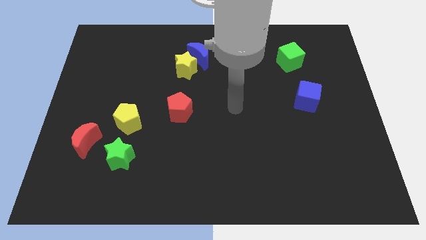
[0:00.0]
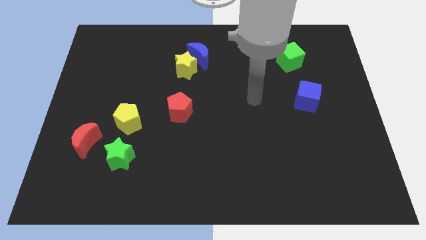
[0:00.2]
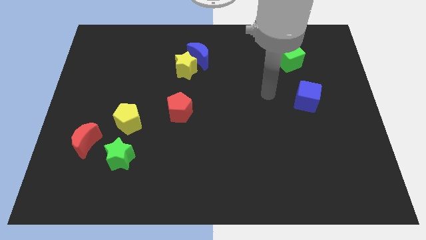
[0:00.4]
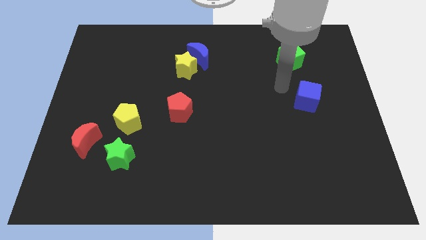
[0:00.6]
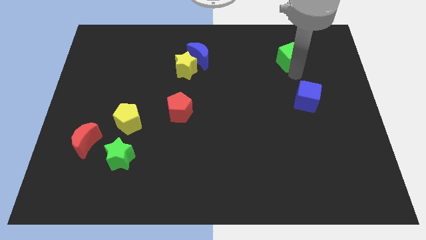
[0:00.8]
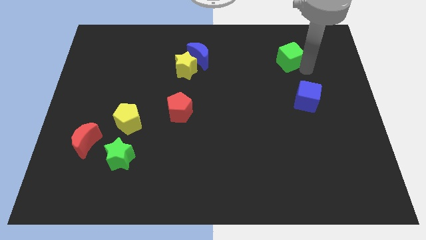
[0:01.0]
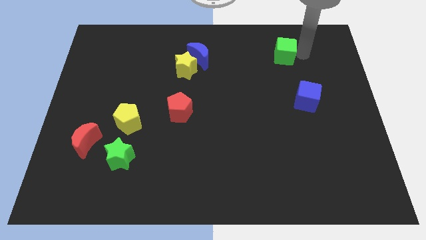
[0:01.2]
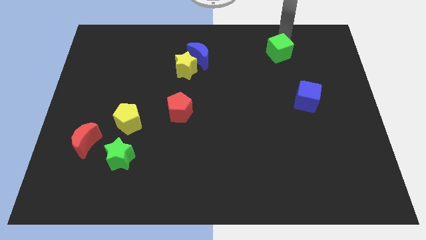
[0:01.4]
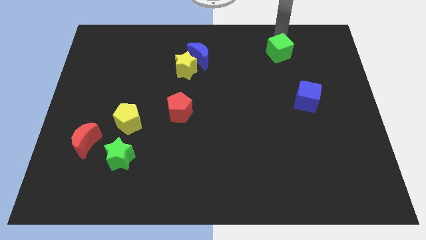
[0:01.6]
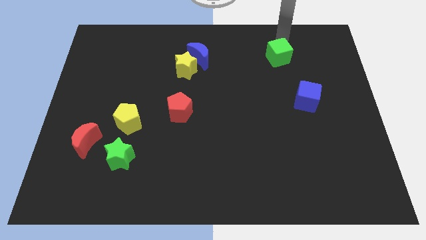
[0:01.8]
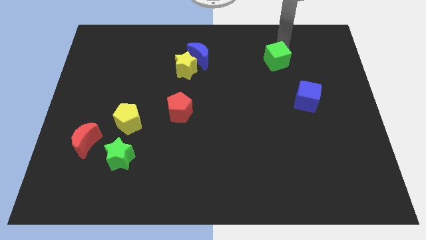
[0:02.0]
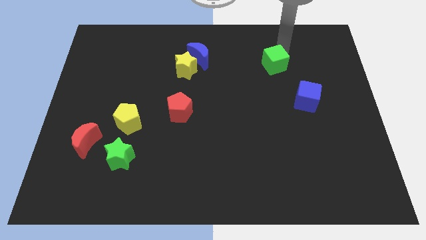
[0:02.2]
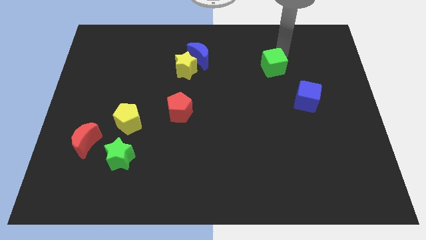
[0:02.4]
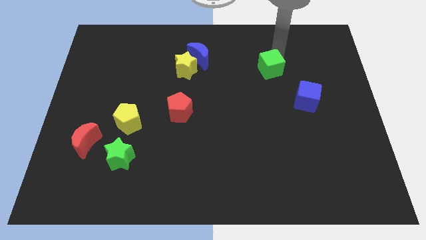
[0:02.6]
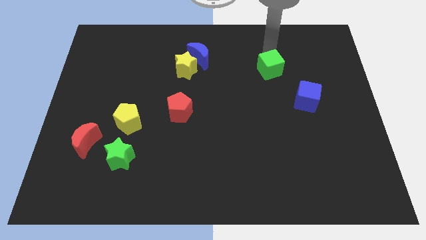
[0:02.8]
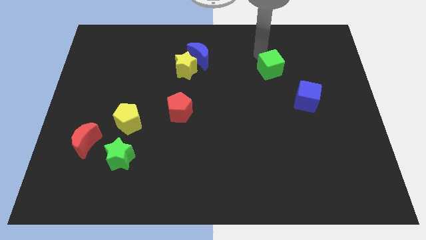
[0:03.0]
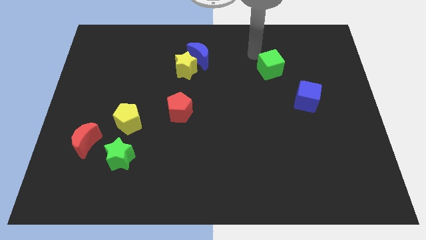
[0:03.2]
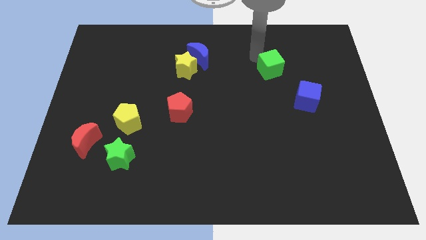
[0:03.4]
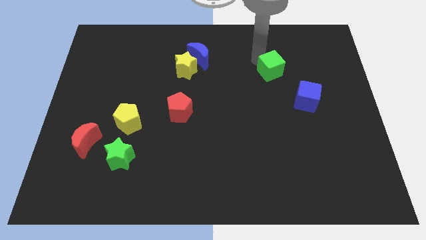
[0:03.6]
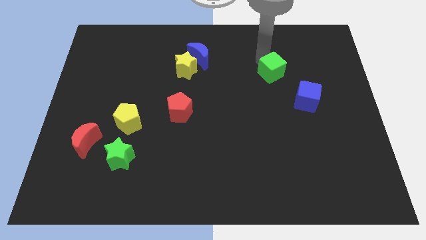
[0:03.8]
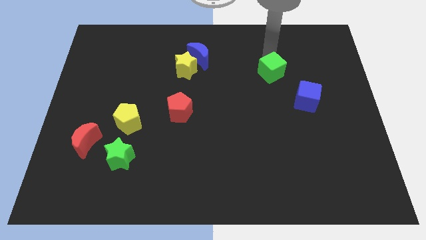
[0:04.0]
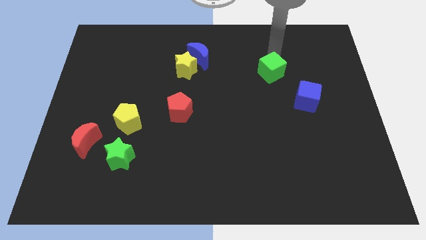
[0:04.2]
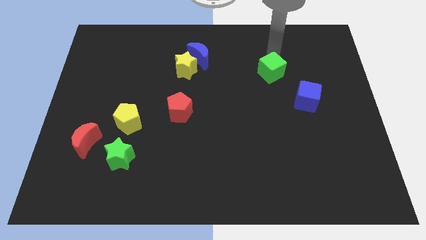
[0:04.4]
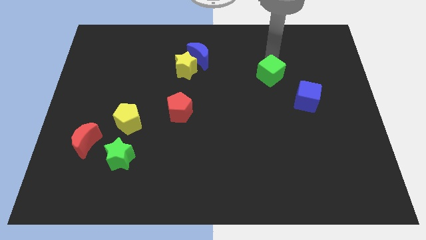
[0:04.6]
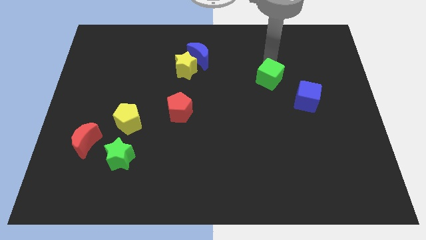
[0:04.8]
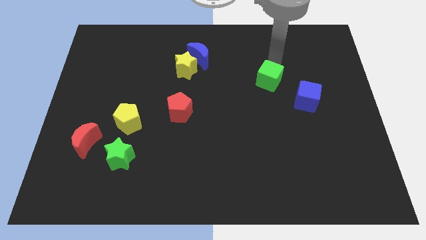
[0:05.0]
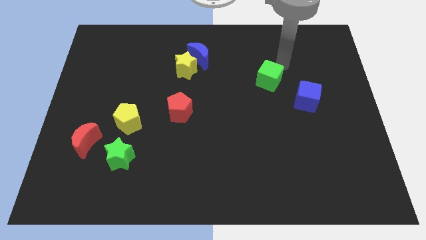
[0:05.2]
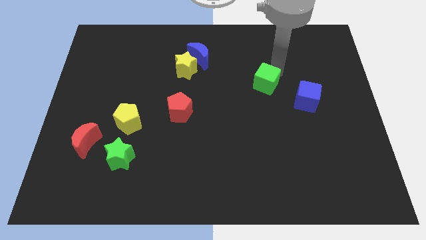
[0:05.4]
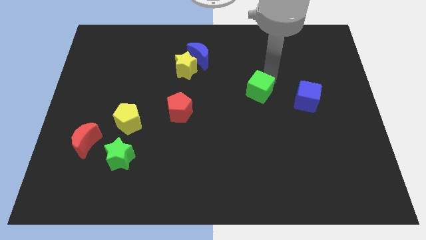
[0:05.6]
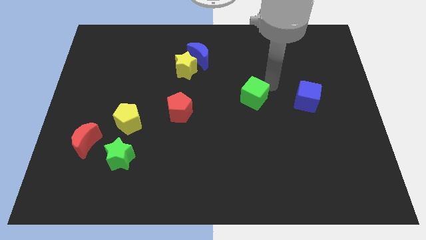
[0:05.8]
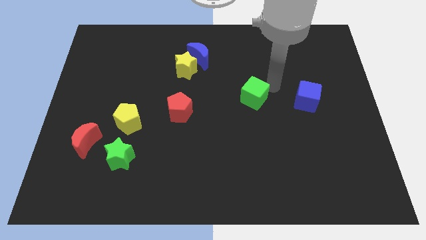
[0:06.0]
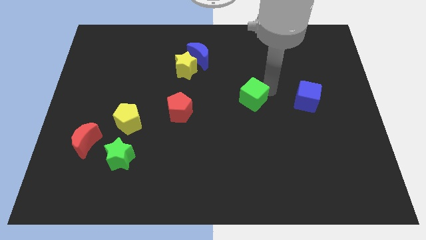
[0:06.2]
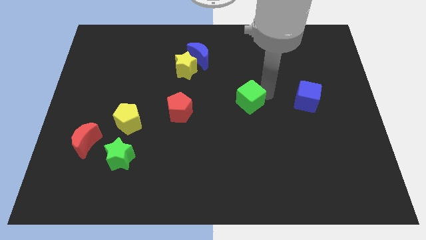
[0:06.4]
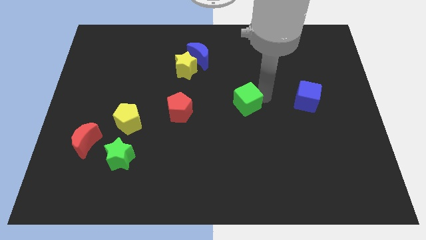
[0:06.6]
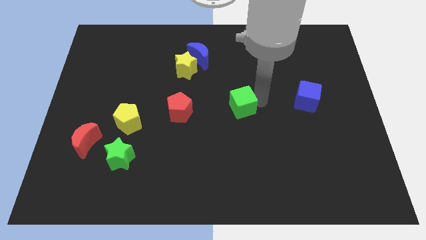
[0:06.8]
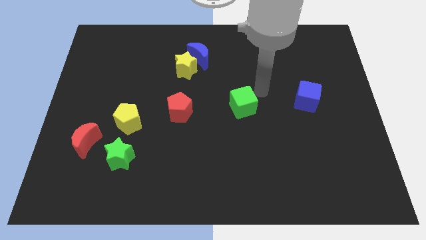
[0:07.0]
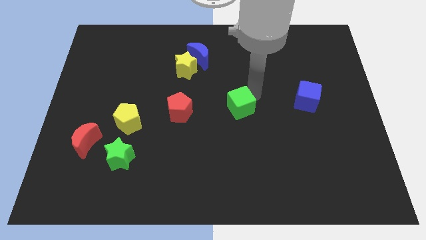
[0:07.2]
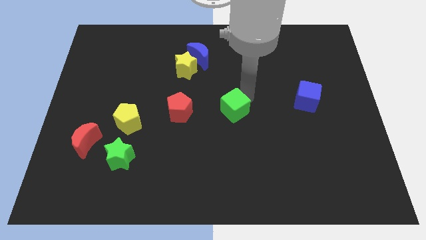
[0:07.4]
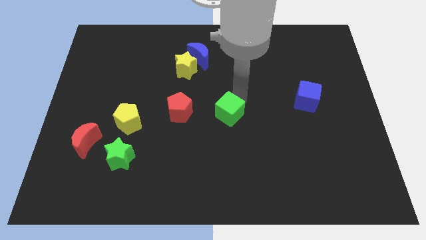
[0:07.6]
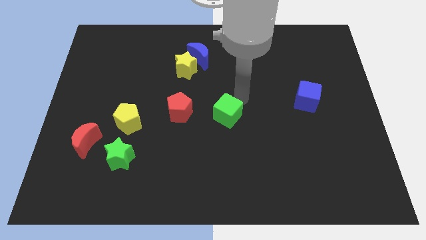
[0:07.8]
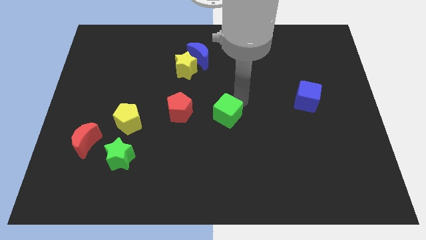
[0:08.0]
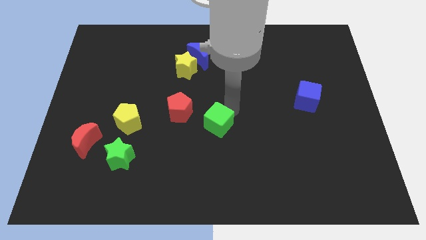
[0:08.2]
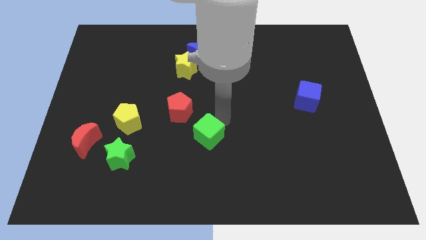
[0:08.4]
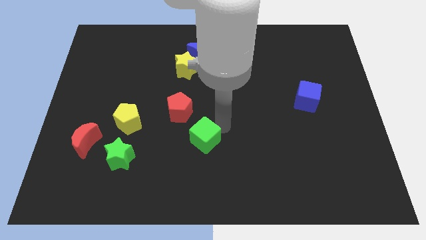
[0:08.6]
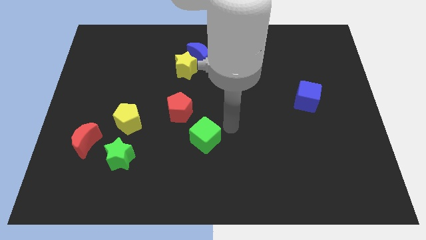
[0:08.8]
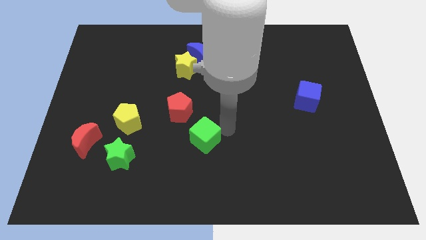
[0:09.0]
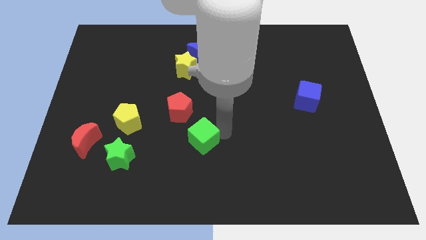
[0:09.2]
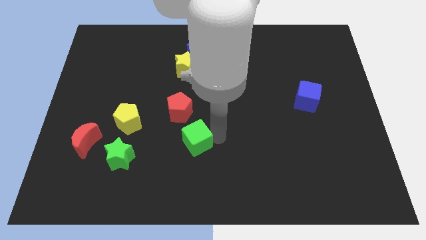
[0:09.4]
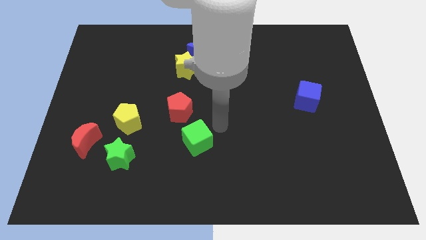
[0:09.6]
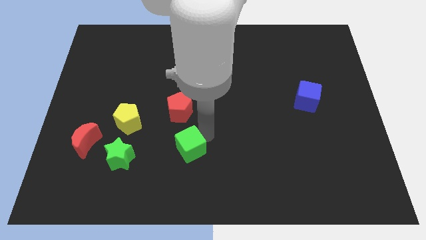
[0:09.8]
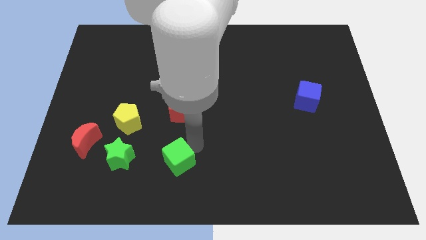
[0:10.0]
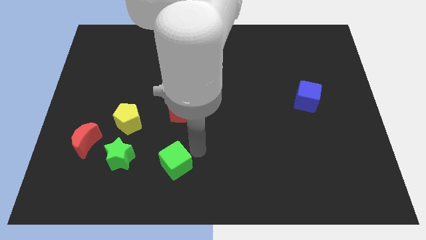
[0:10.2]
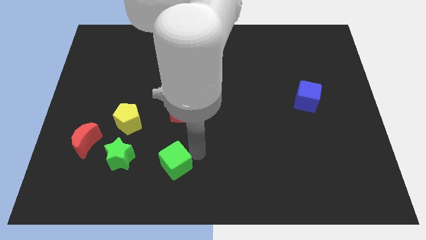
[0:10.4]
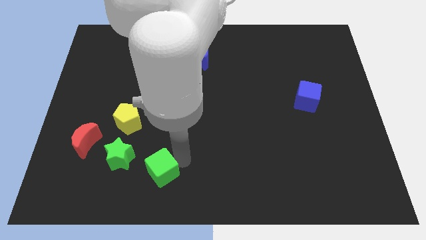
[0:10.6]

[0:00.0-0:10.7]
slide the green cube to the bottom right side of the green star
